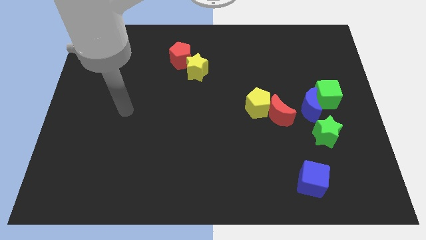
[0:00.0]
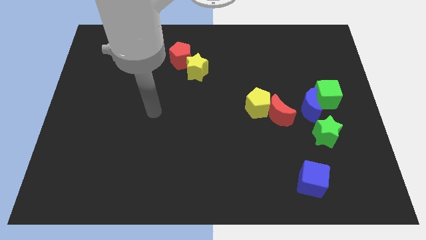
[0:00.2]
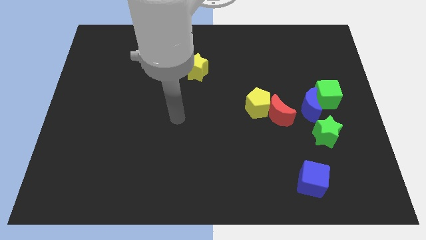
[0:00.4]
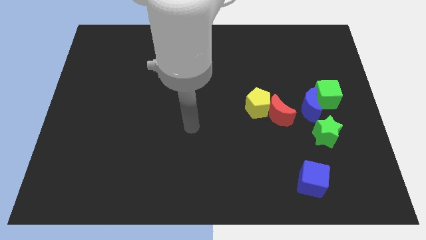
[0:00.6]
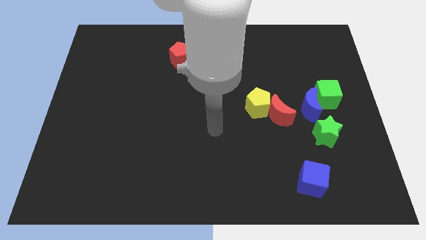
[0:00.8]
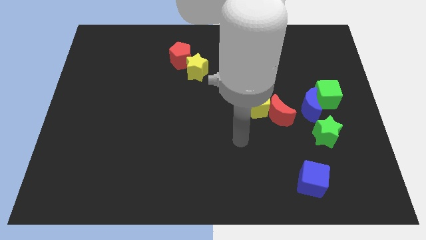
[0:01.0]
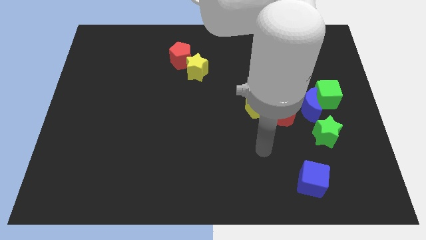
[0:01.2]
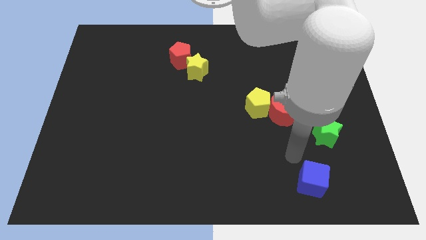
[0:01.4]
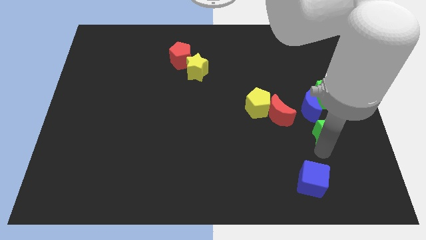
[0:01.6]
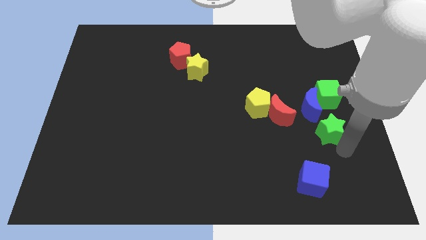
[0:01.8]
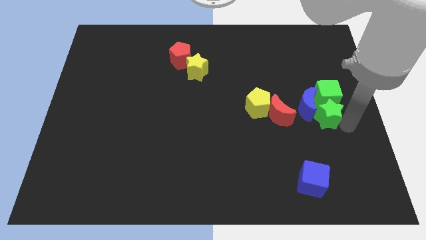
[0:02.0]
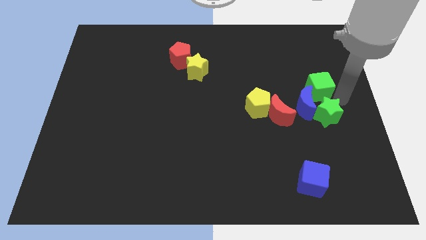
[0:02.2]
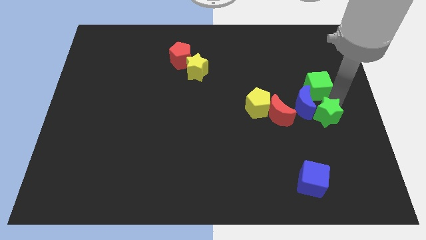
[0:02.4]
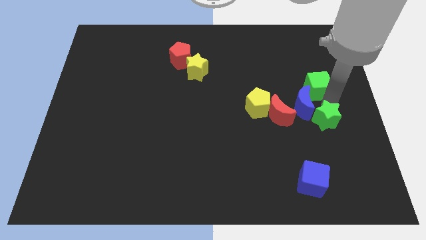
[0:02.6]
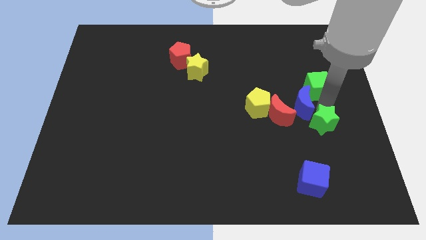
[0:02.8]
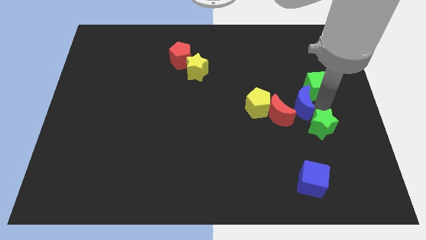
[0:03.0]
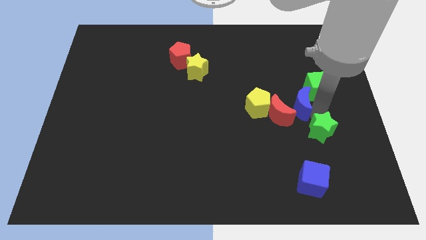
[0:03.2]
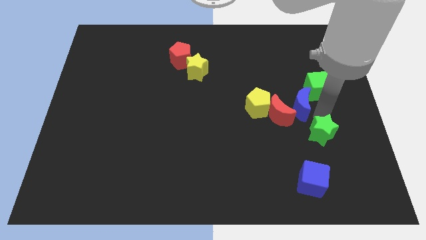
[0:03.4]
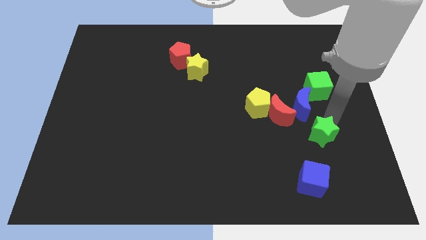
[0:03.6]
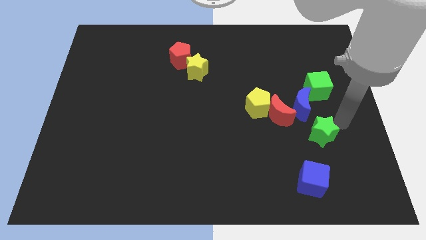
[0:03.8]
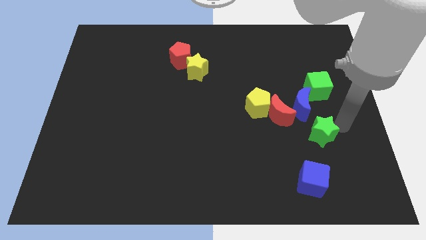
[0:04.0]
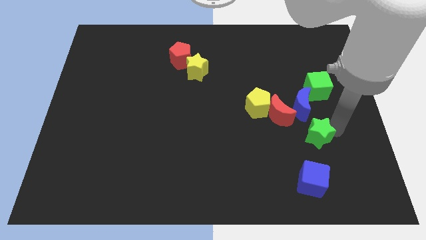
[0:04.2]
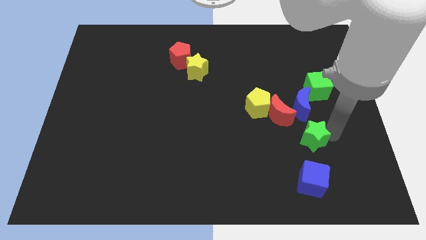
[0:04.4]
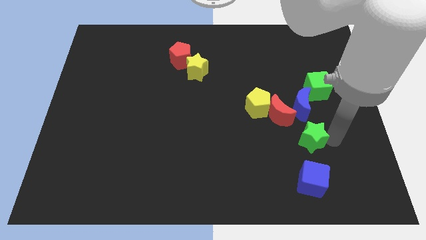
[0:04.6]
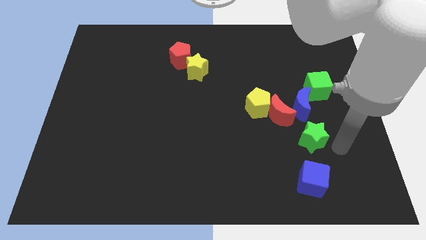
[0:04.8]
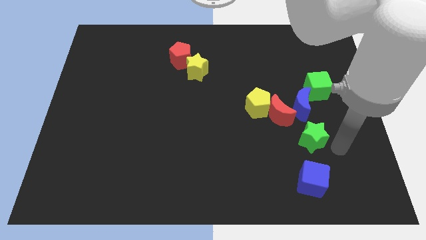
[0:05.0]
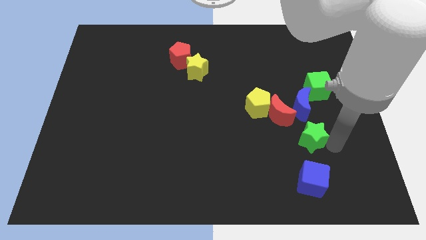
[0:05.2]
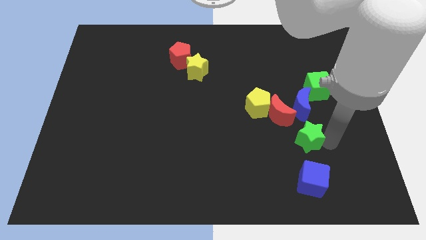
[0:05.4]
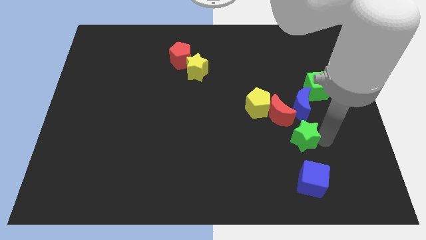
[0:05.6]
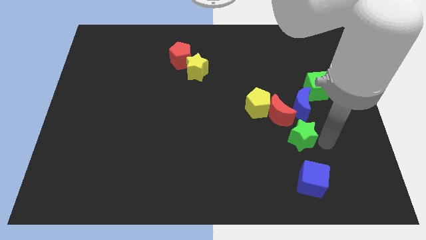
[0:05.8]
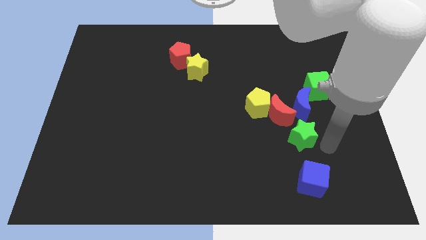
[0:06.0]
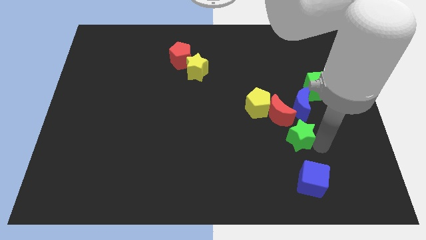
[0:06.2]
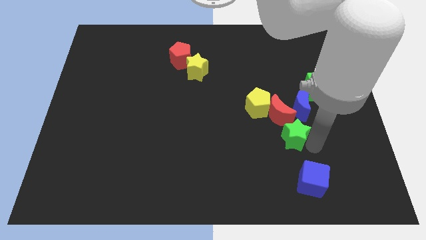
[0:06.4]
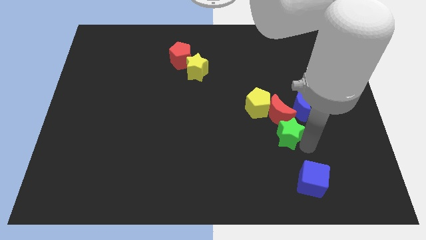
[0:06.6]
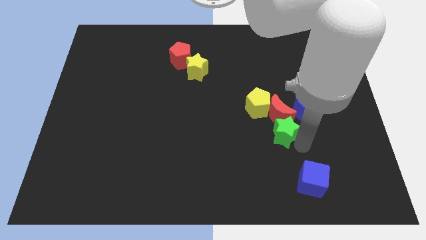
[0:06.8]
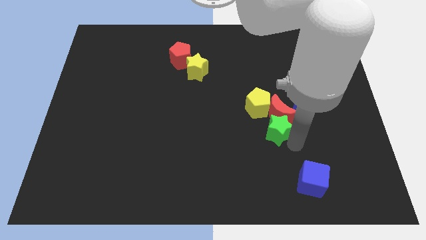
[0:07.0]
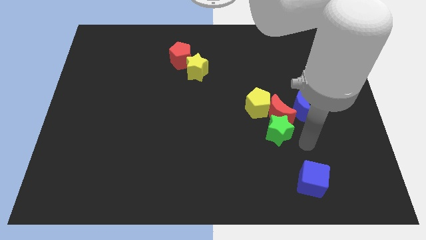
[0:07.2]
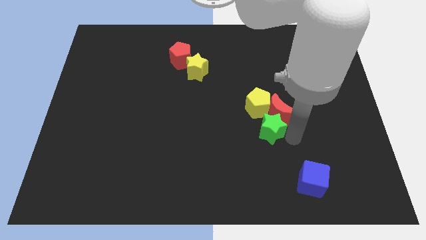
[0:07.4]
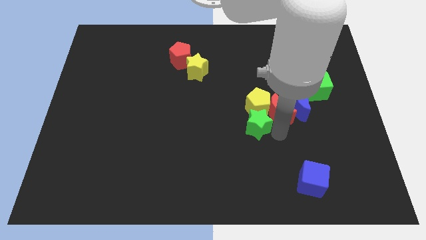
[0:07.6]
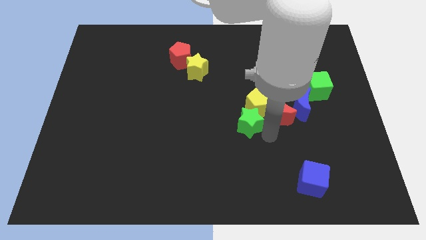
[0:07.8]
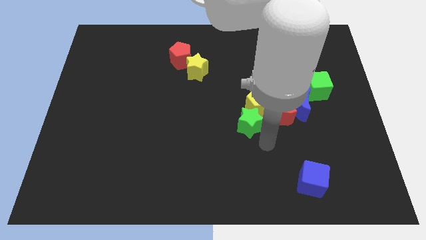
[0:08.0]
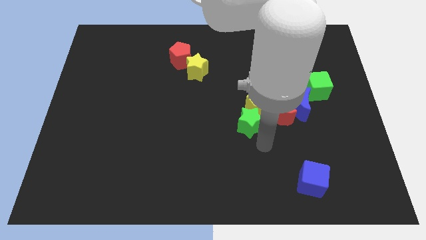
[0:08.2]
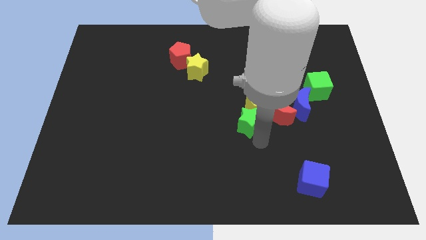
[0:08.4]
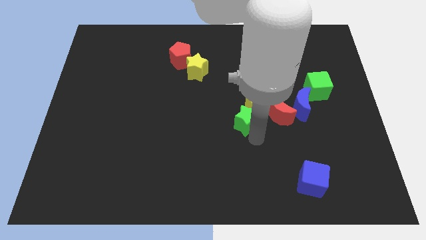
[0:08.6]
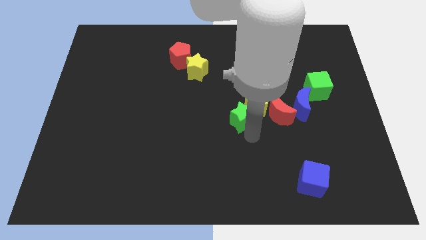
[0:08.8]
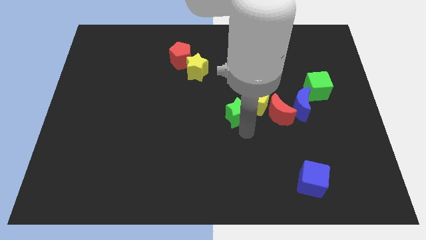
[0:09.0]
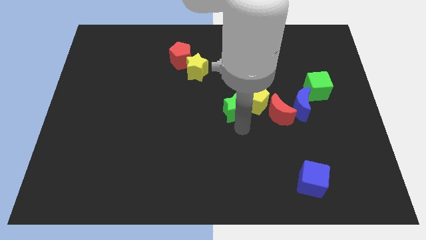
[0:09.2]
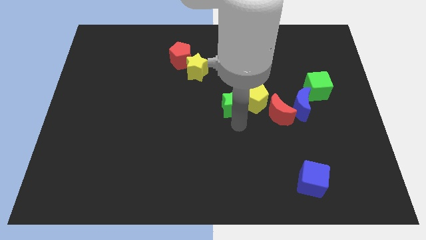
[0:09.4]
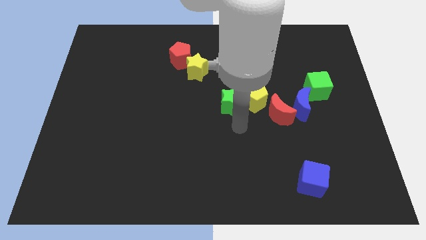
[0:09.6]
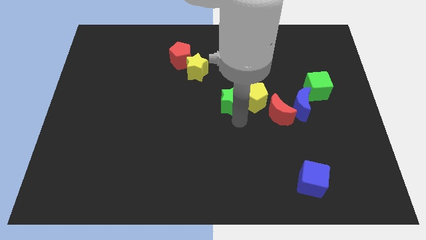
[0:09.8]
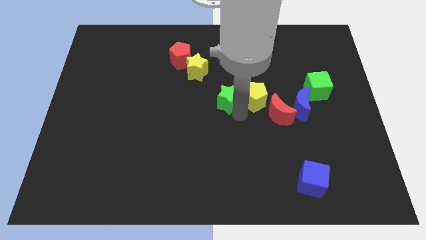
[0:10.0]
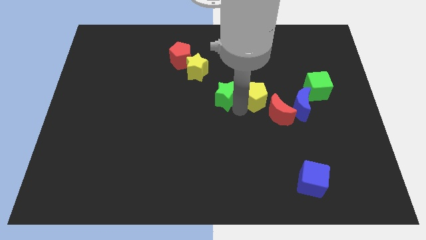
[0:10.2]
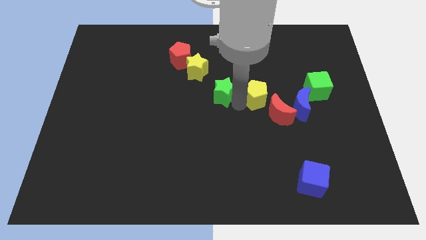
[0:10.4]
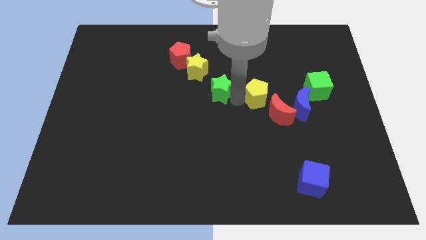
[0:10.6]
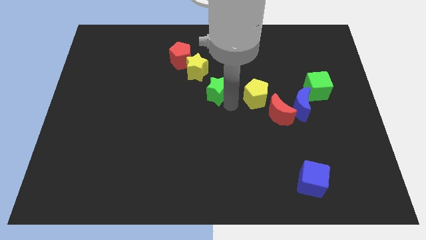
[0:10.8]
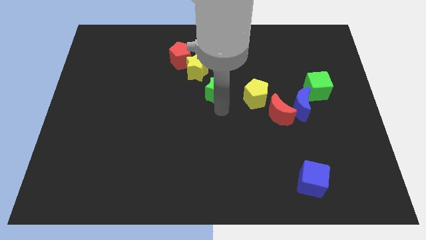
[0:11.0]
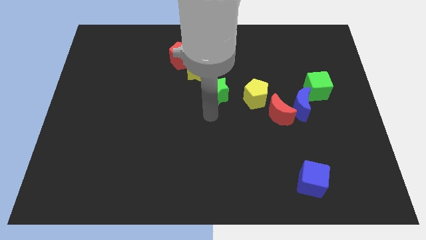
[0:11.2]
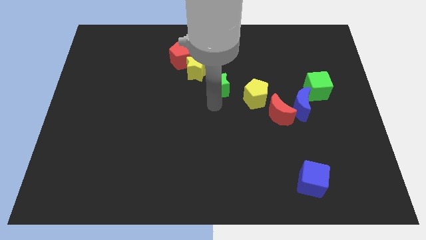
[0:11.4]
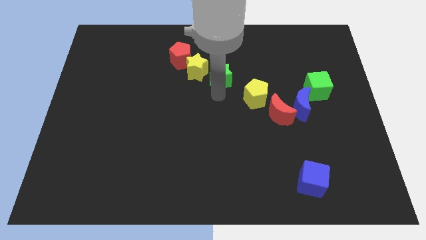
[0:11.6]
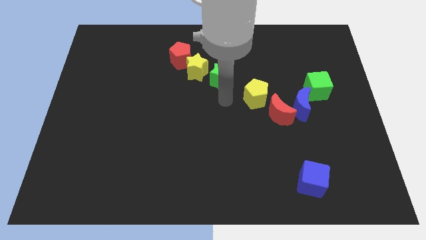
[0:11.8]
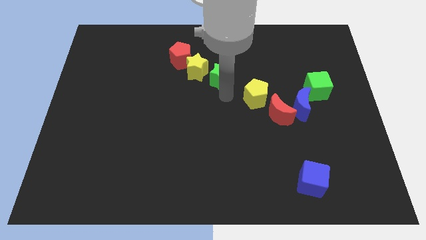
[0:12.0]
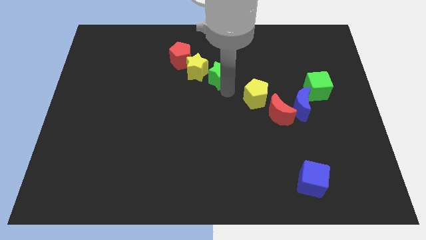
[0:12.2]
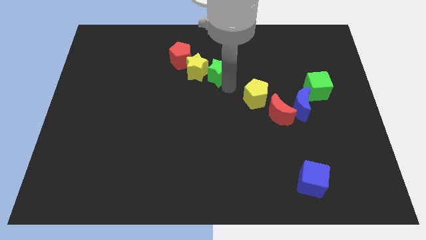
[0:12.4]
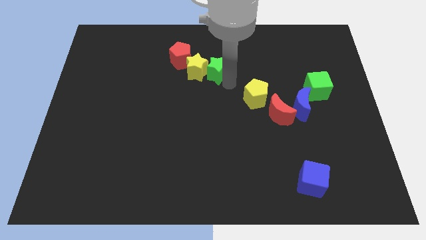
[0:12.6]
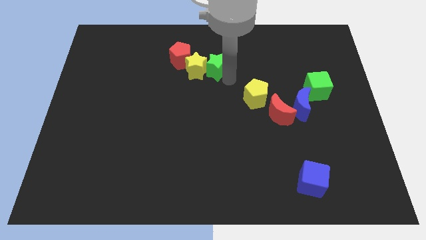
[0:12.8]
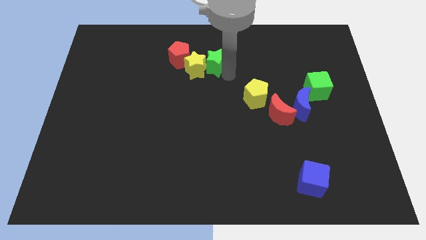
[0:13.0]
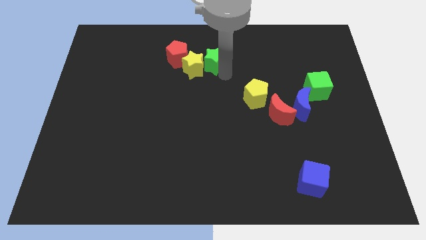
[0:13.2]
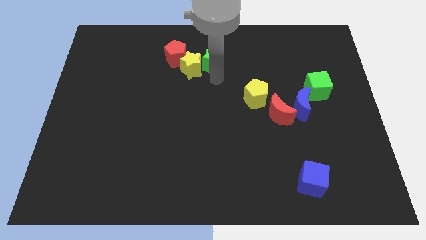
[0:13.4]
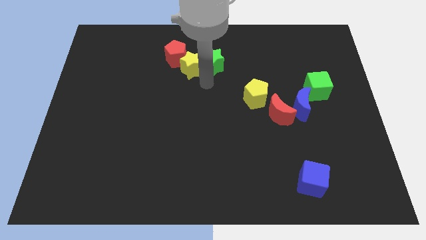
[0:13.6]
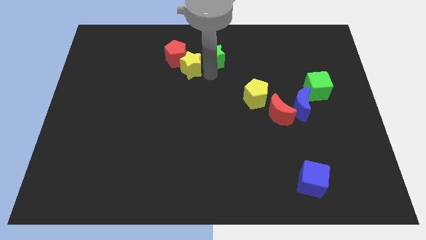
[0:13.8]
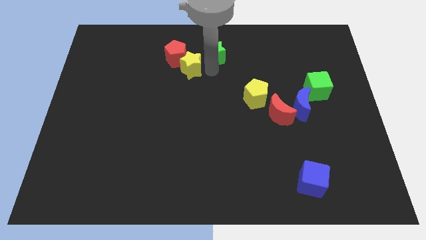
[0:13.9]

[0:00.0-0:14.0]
put the green star to the top

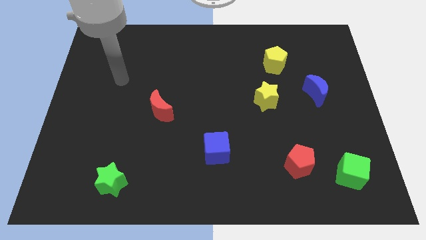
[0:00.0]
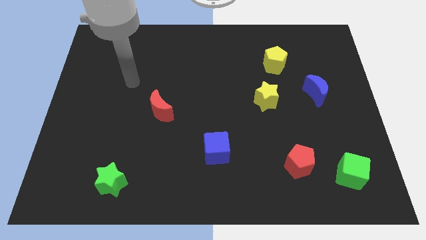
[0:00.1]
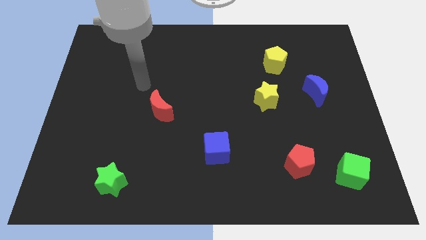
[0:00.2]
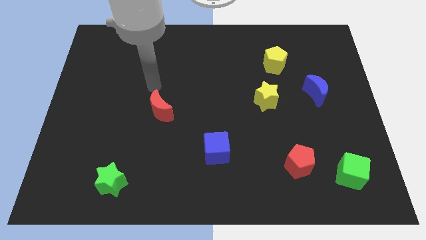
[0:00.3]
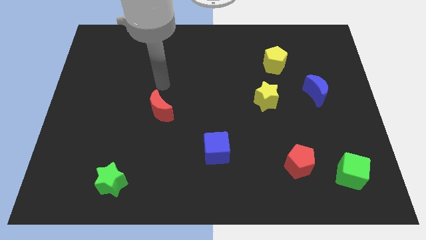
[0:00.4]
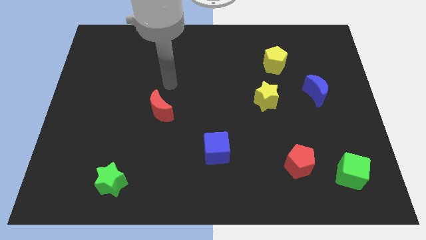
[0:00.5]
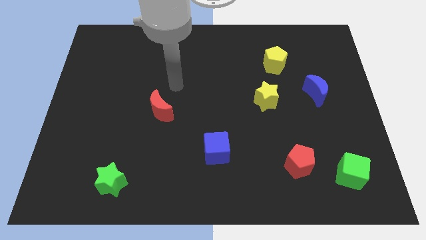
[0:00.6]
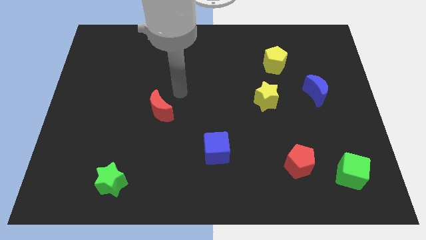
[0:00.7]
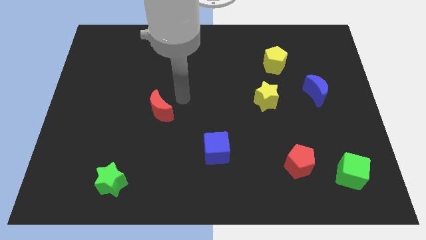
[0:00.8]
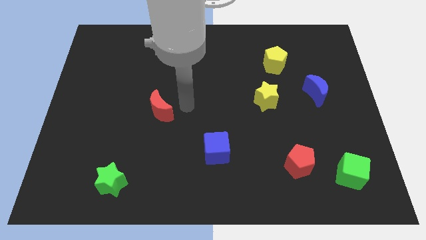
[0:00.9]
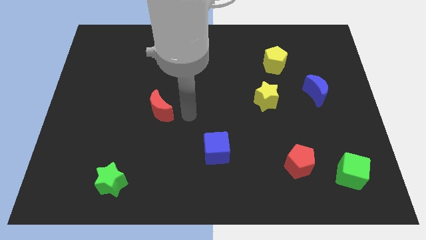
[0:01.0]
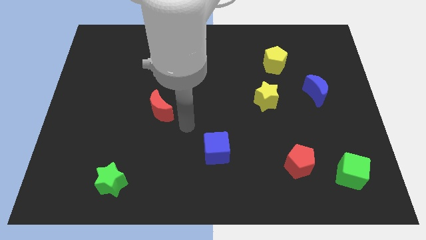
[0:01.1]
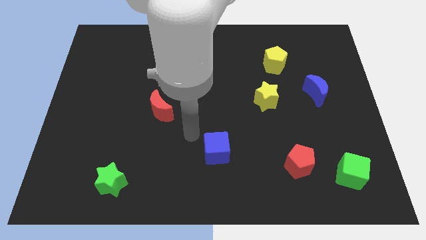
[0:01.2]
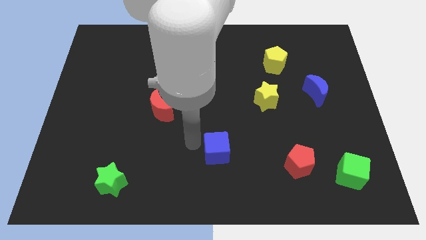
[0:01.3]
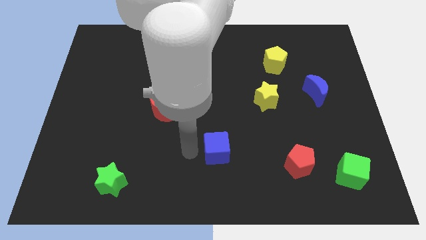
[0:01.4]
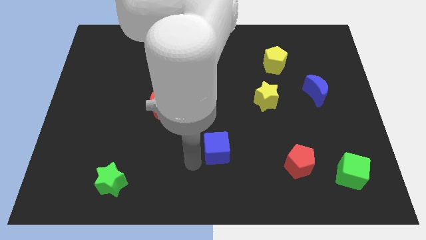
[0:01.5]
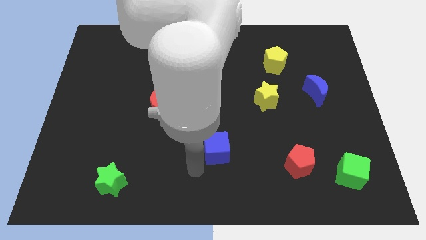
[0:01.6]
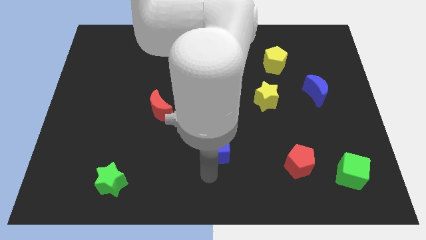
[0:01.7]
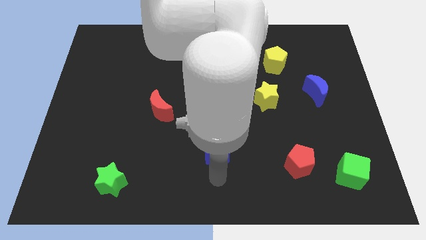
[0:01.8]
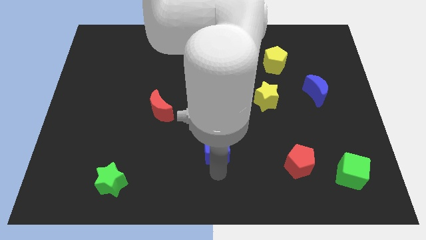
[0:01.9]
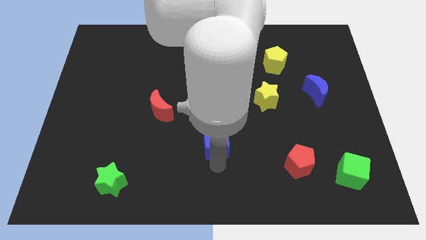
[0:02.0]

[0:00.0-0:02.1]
push the blue cube to the center of the board
